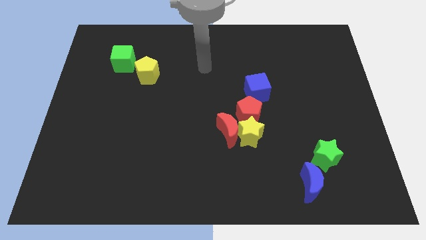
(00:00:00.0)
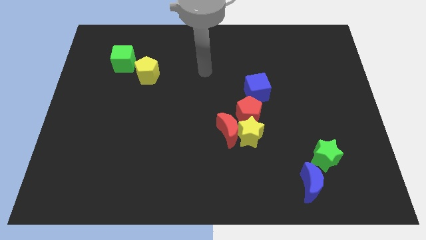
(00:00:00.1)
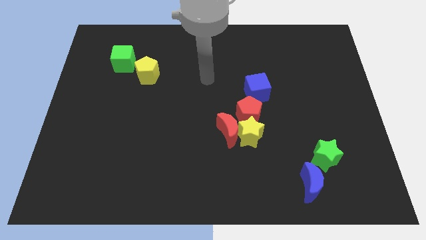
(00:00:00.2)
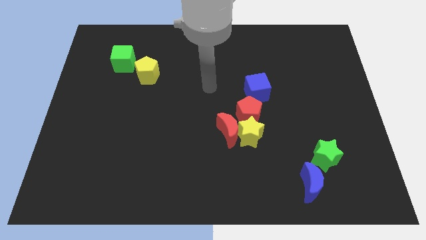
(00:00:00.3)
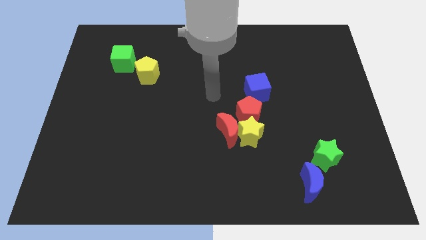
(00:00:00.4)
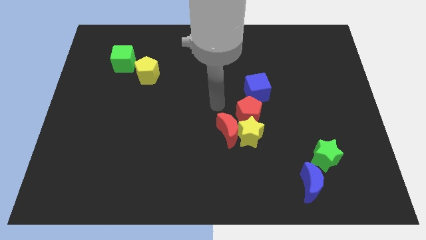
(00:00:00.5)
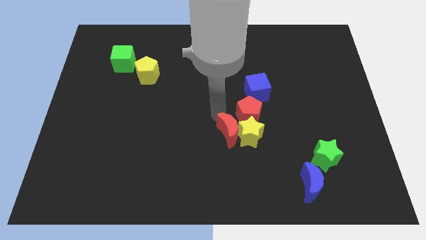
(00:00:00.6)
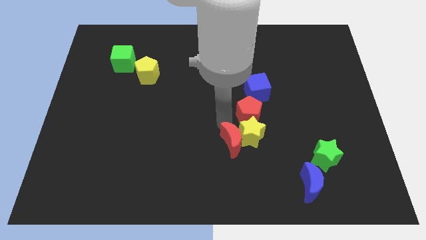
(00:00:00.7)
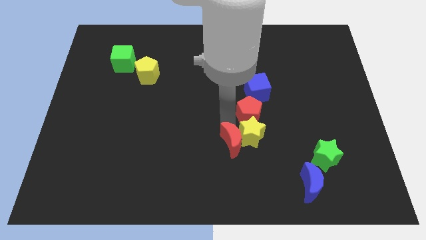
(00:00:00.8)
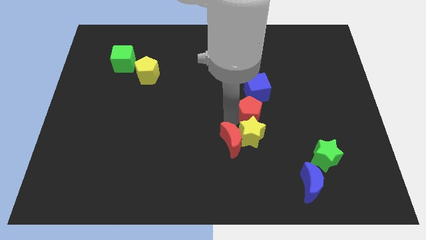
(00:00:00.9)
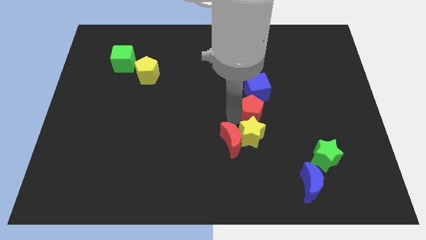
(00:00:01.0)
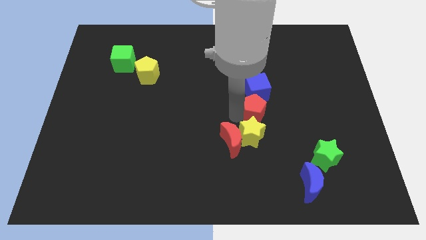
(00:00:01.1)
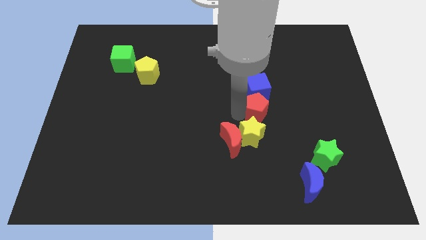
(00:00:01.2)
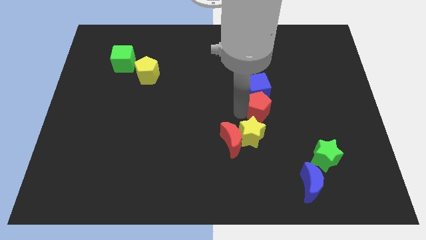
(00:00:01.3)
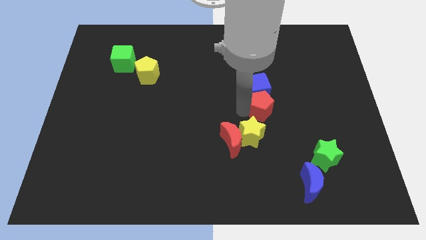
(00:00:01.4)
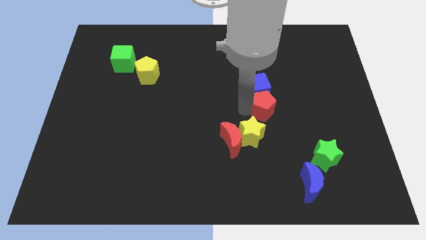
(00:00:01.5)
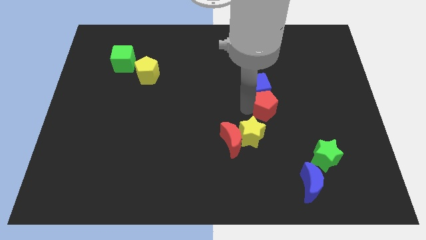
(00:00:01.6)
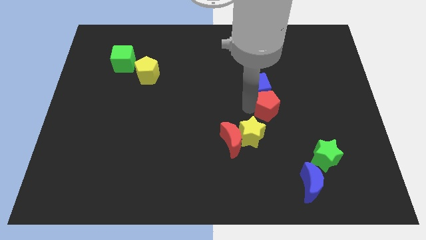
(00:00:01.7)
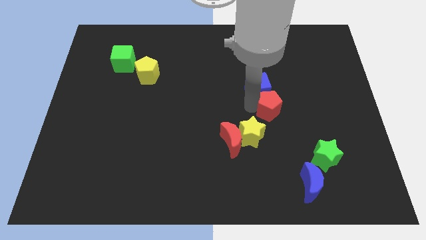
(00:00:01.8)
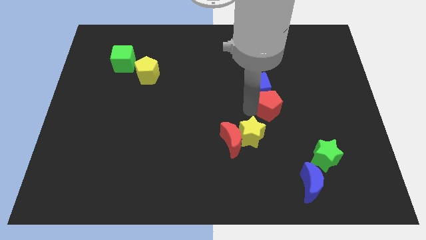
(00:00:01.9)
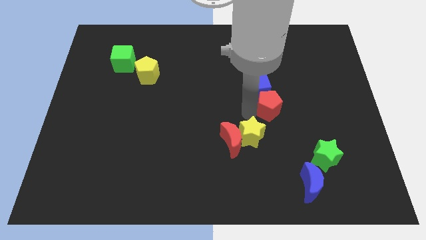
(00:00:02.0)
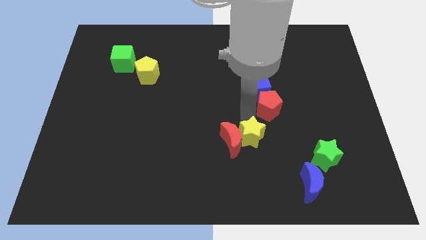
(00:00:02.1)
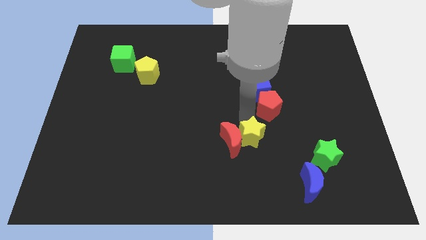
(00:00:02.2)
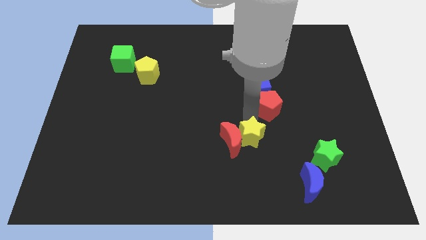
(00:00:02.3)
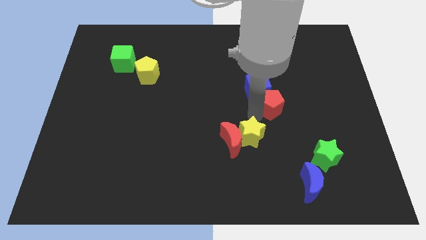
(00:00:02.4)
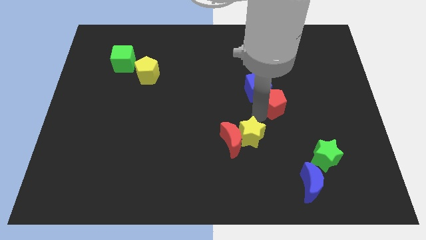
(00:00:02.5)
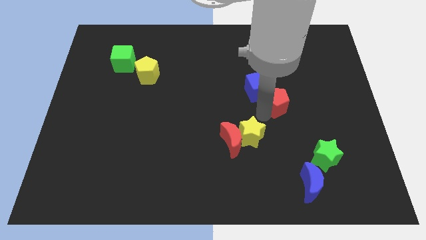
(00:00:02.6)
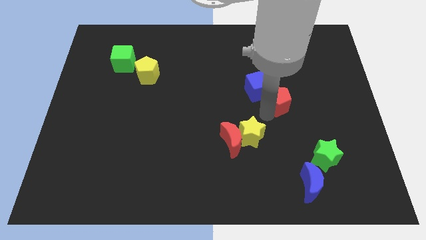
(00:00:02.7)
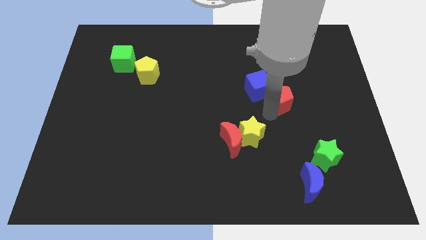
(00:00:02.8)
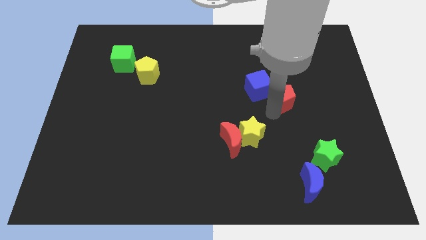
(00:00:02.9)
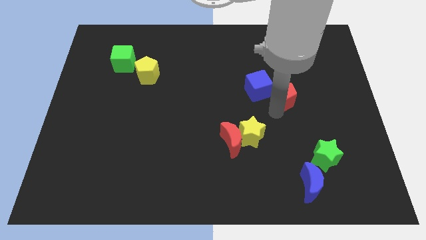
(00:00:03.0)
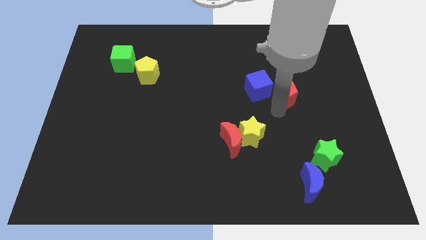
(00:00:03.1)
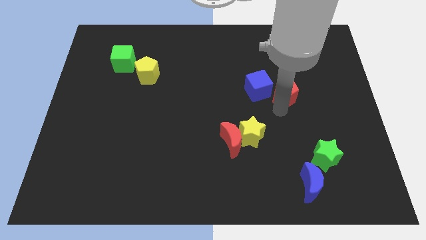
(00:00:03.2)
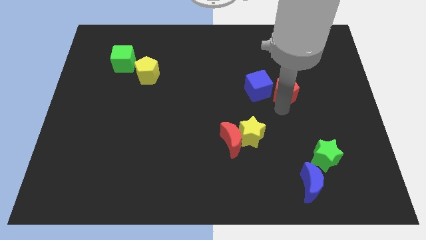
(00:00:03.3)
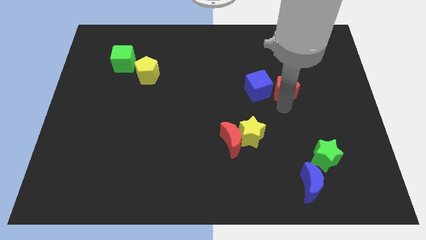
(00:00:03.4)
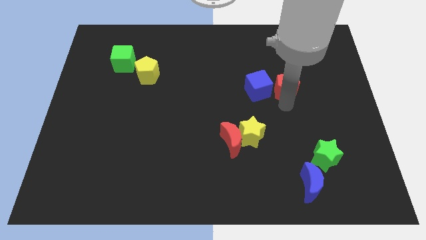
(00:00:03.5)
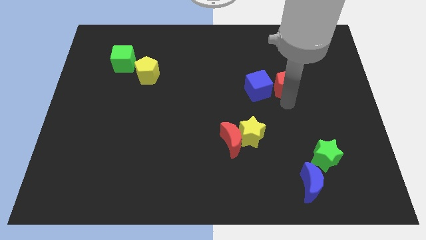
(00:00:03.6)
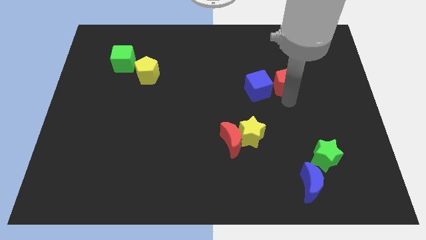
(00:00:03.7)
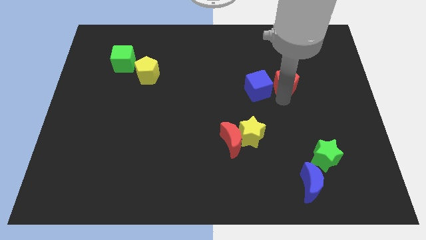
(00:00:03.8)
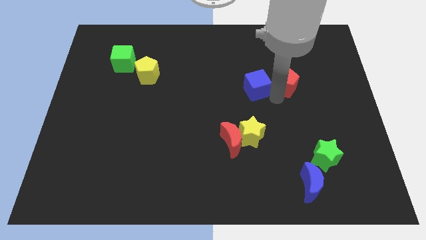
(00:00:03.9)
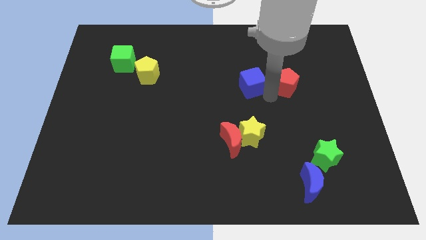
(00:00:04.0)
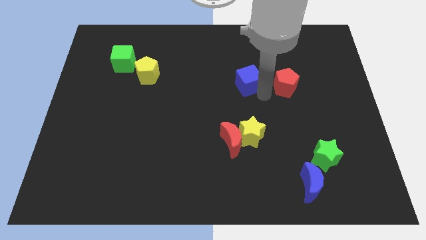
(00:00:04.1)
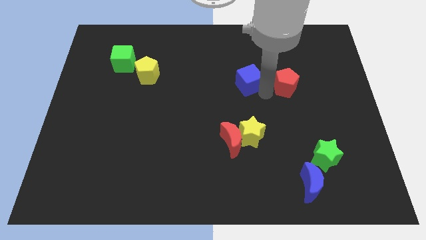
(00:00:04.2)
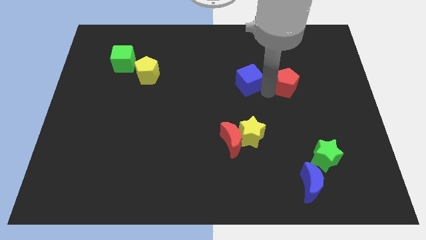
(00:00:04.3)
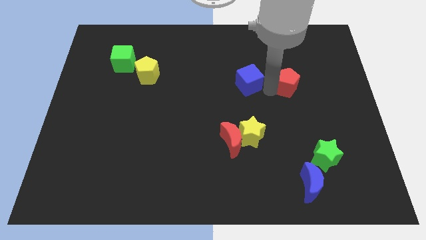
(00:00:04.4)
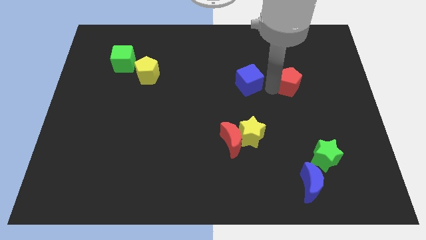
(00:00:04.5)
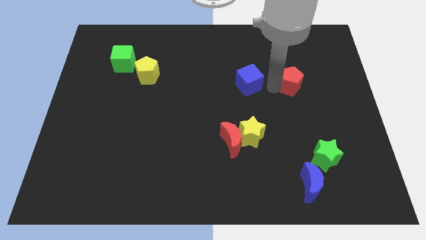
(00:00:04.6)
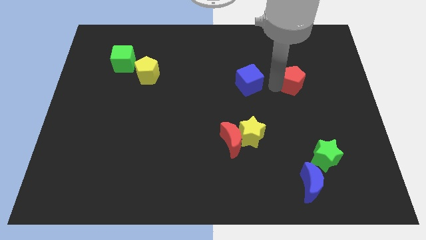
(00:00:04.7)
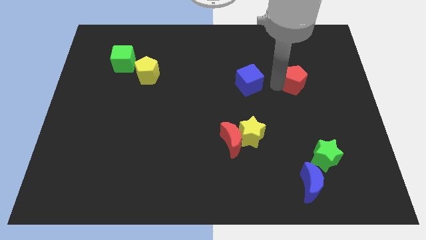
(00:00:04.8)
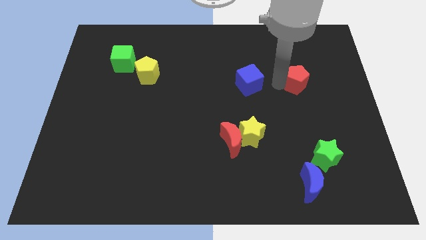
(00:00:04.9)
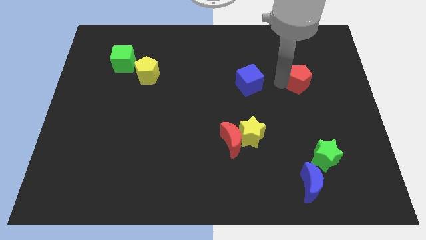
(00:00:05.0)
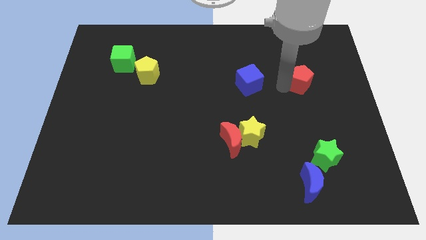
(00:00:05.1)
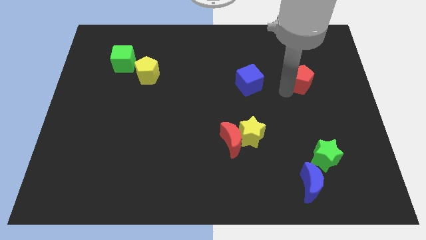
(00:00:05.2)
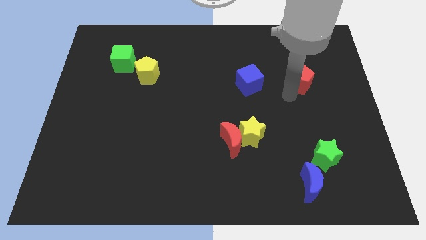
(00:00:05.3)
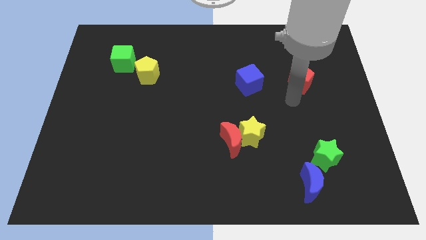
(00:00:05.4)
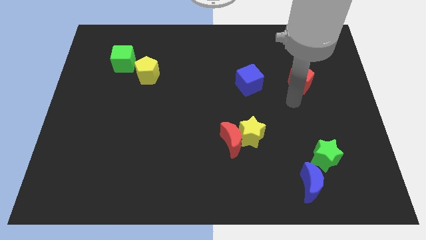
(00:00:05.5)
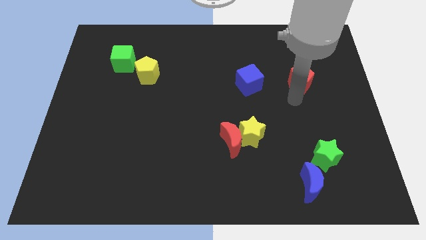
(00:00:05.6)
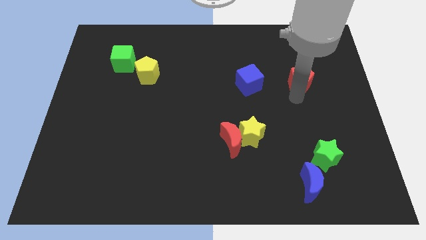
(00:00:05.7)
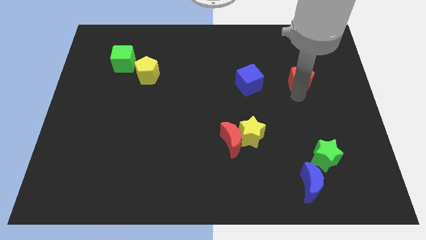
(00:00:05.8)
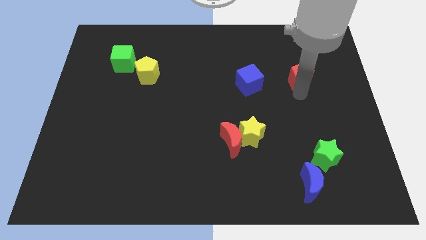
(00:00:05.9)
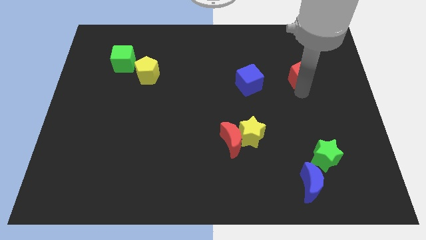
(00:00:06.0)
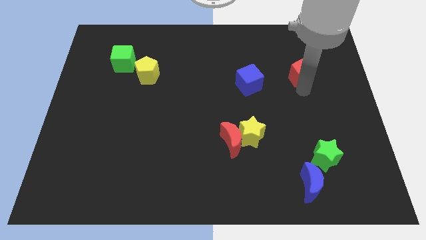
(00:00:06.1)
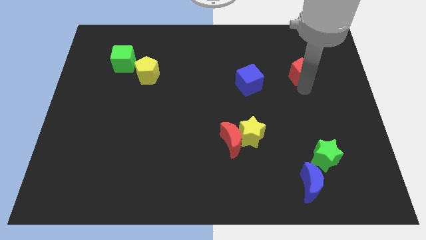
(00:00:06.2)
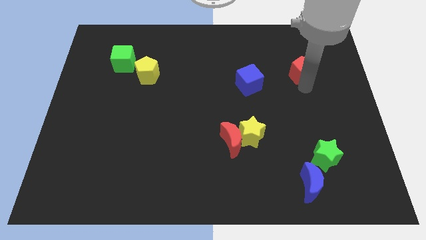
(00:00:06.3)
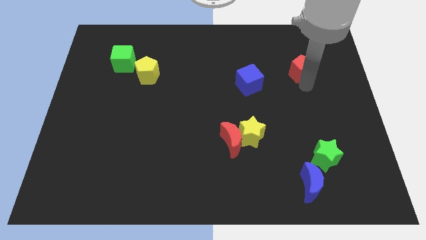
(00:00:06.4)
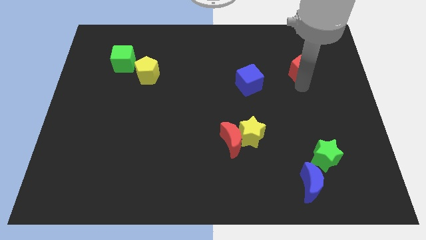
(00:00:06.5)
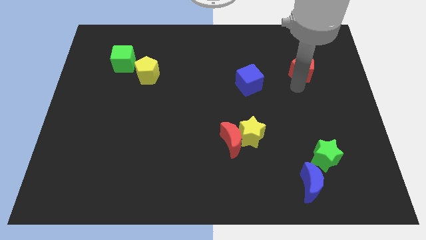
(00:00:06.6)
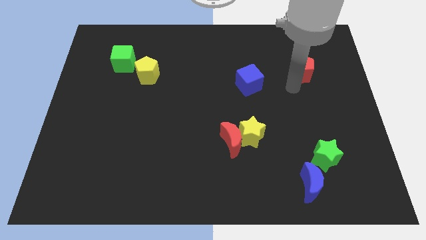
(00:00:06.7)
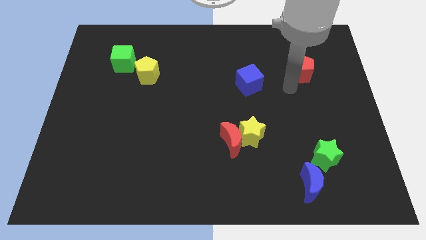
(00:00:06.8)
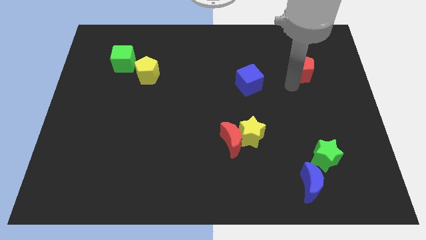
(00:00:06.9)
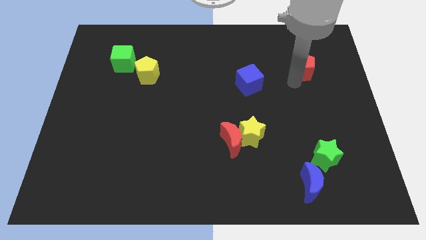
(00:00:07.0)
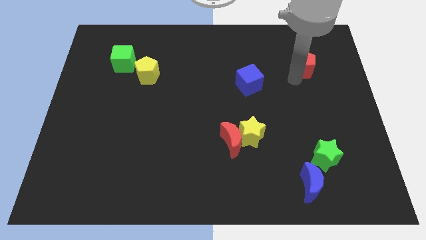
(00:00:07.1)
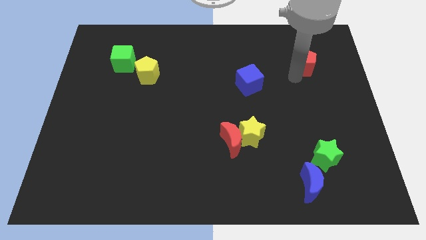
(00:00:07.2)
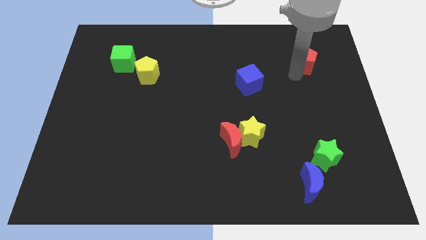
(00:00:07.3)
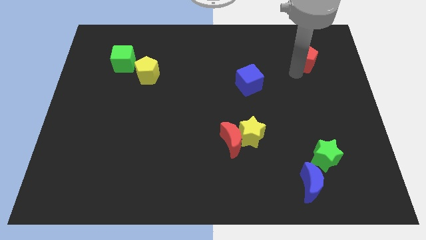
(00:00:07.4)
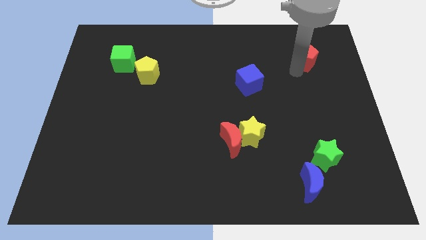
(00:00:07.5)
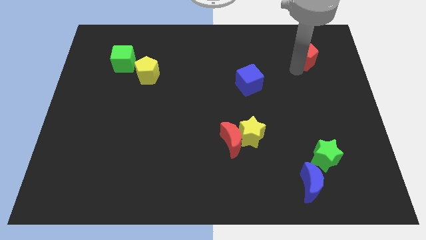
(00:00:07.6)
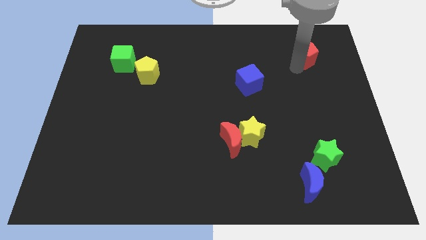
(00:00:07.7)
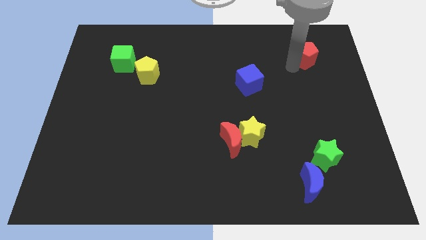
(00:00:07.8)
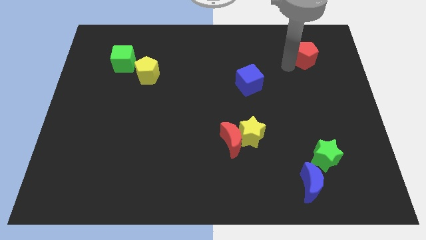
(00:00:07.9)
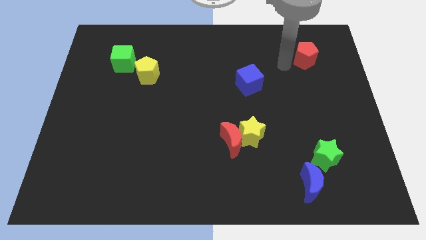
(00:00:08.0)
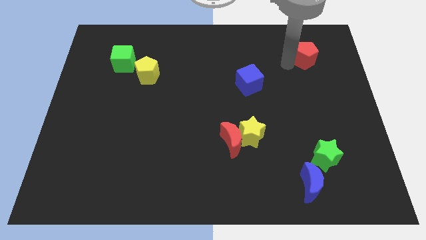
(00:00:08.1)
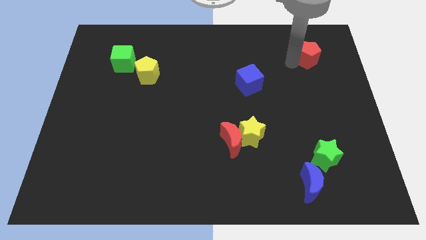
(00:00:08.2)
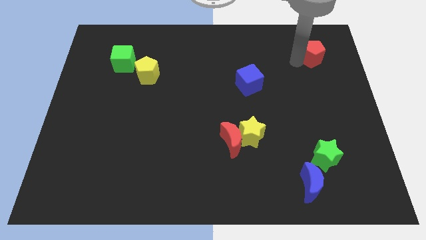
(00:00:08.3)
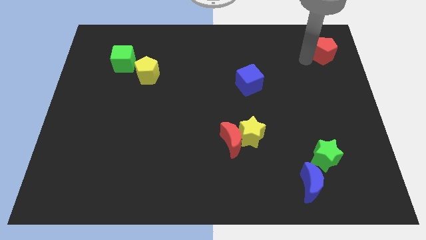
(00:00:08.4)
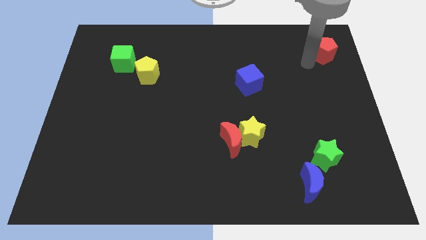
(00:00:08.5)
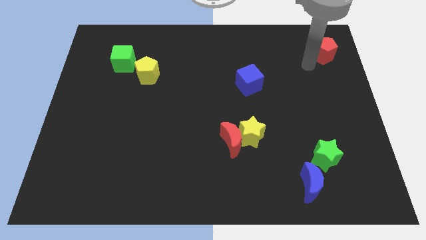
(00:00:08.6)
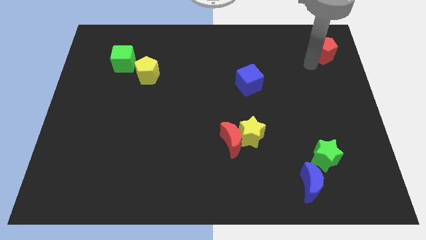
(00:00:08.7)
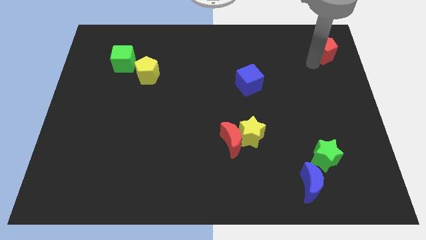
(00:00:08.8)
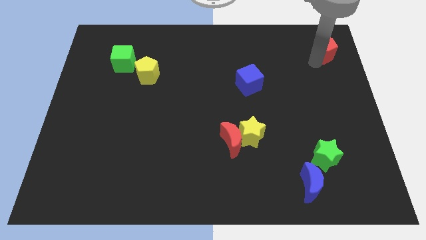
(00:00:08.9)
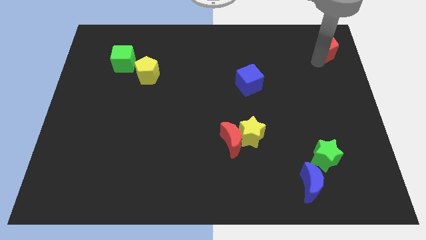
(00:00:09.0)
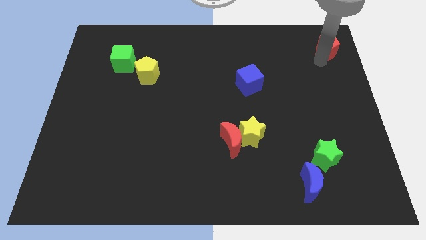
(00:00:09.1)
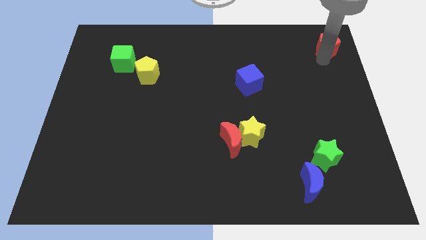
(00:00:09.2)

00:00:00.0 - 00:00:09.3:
slide the red pentagon to the top right
